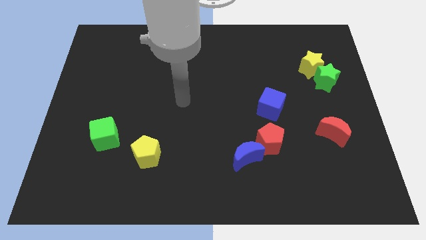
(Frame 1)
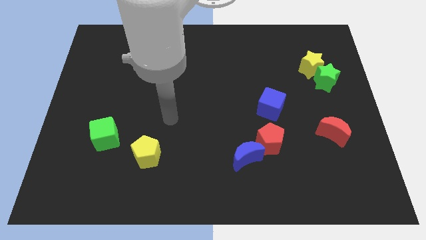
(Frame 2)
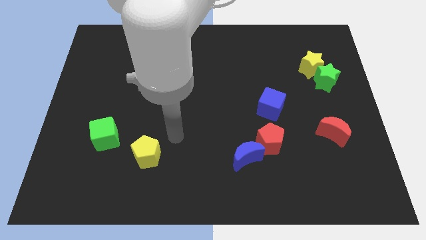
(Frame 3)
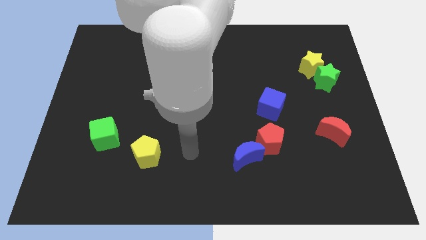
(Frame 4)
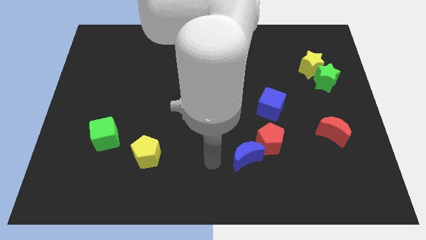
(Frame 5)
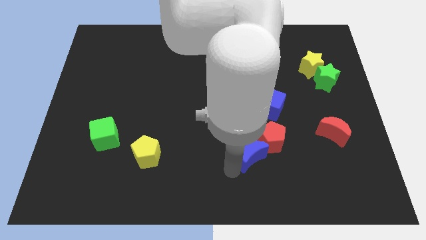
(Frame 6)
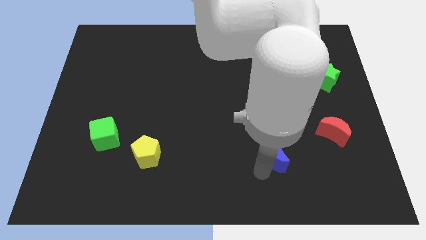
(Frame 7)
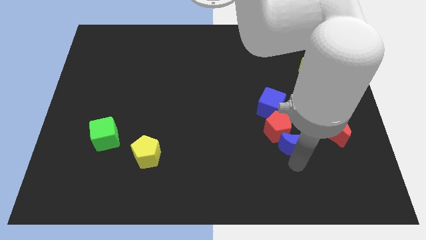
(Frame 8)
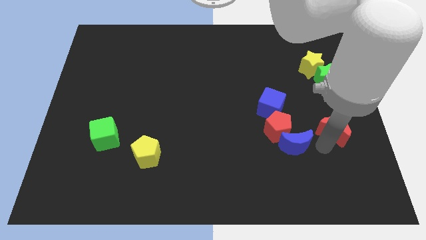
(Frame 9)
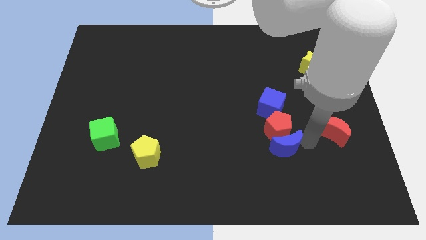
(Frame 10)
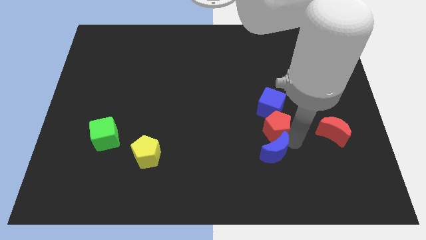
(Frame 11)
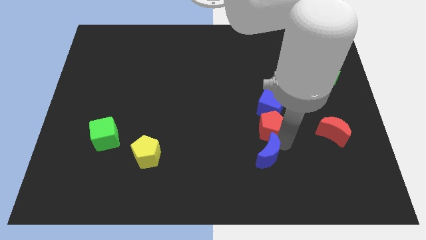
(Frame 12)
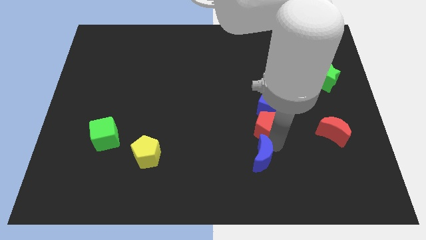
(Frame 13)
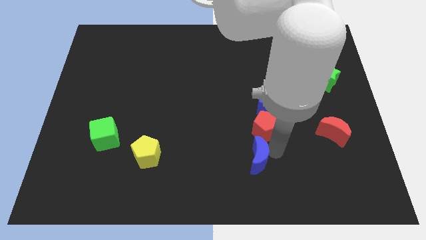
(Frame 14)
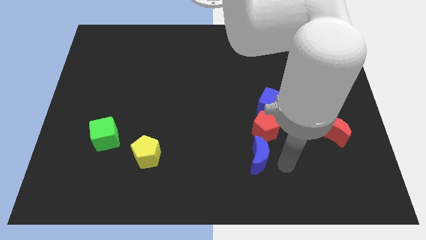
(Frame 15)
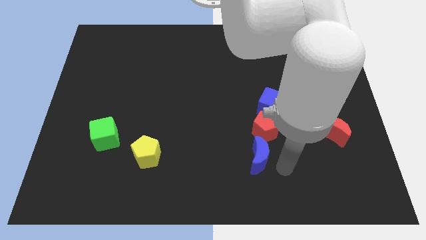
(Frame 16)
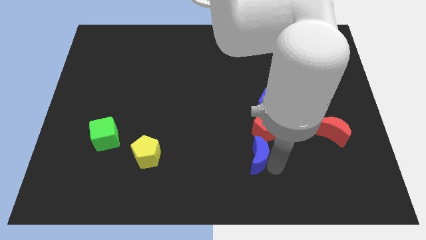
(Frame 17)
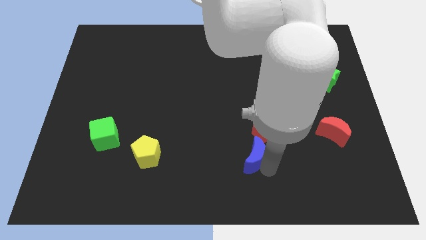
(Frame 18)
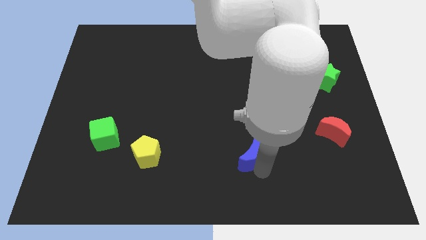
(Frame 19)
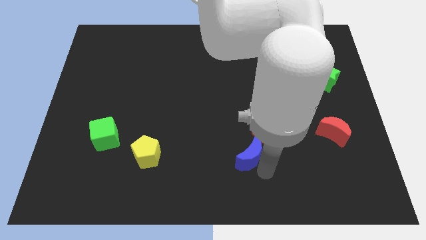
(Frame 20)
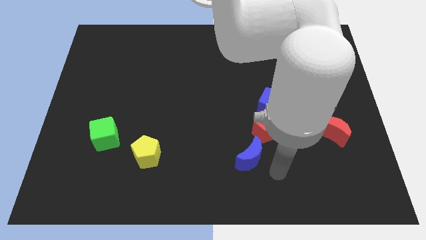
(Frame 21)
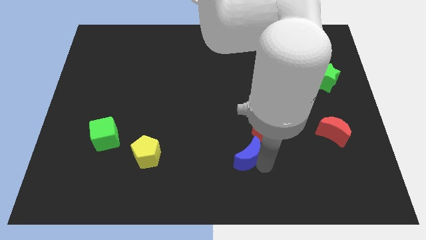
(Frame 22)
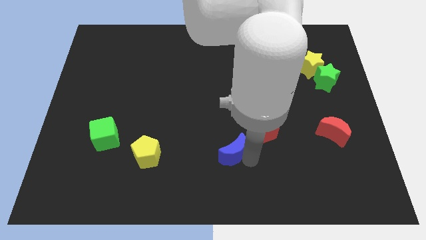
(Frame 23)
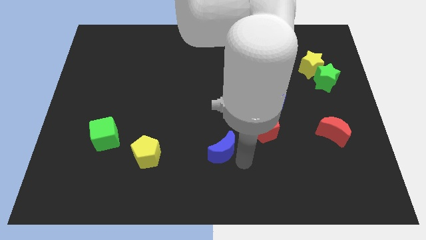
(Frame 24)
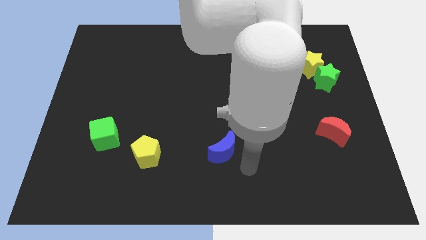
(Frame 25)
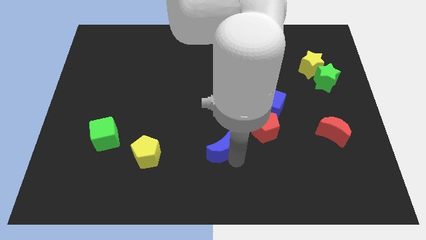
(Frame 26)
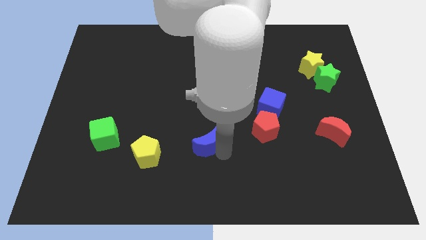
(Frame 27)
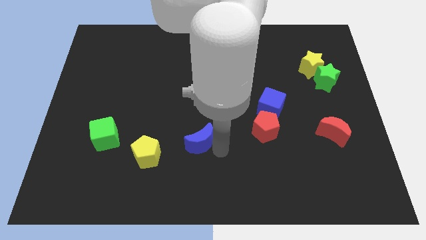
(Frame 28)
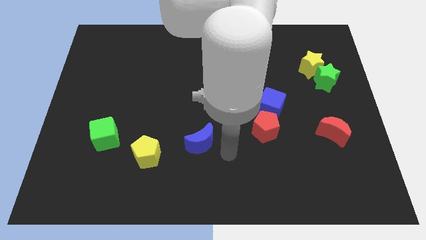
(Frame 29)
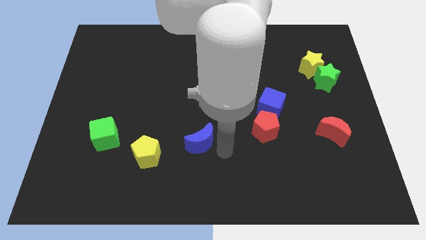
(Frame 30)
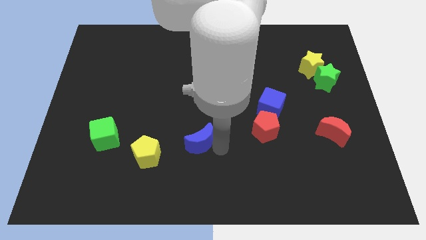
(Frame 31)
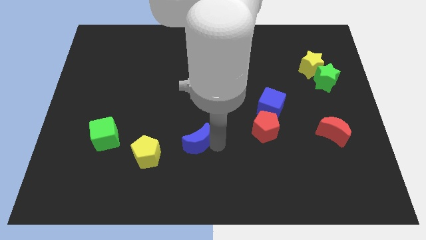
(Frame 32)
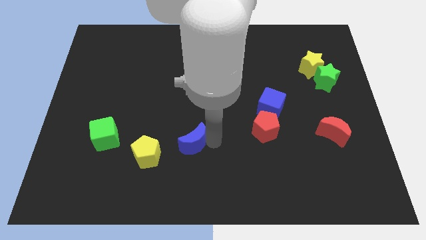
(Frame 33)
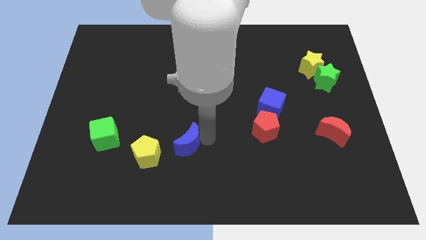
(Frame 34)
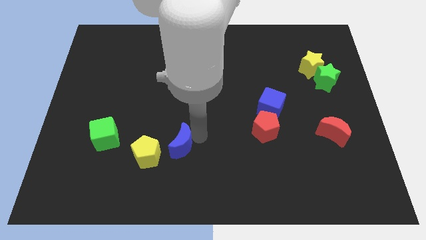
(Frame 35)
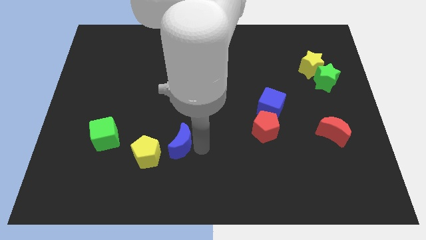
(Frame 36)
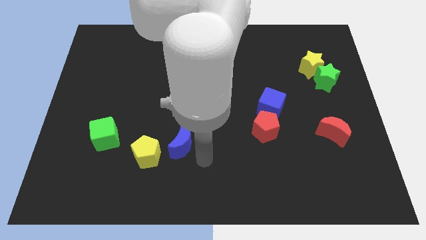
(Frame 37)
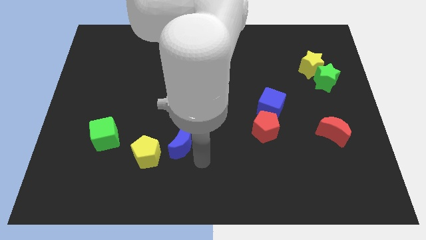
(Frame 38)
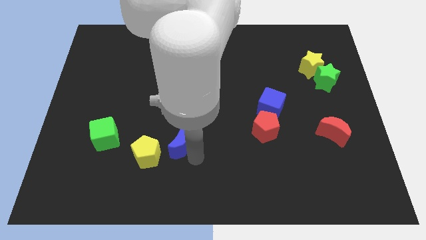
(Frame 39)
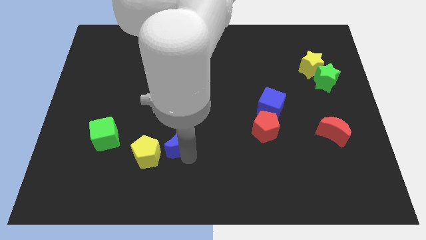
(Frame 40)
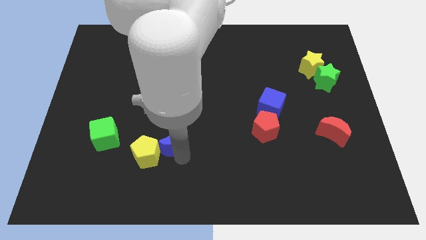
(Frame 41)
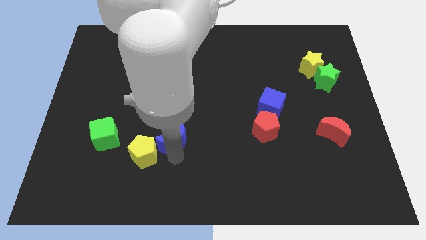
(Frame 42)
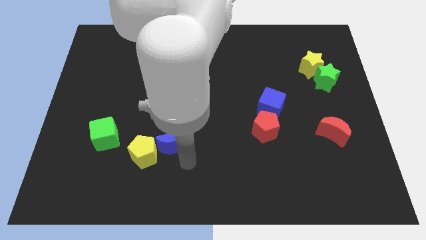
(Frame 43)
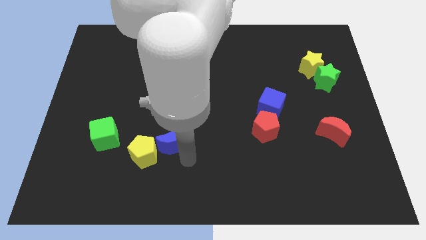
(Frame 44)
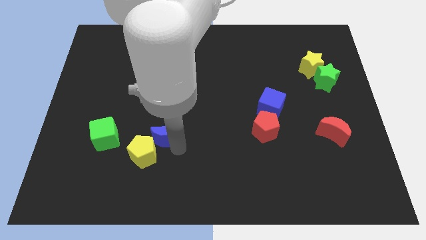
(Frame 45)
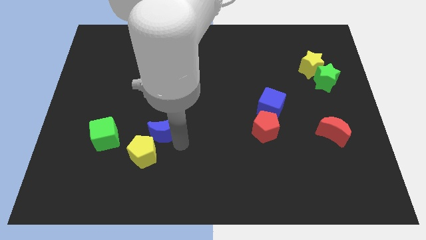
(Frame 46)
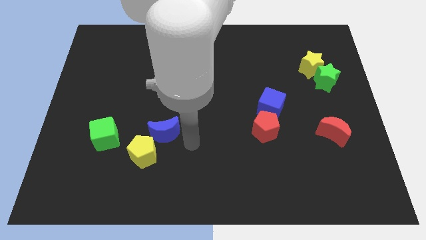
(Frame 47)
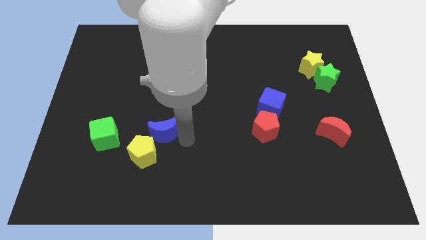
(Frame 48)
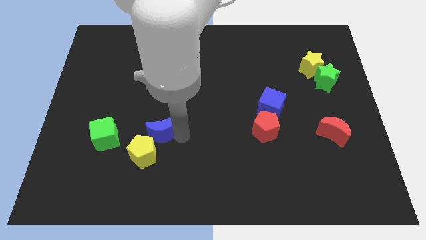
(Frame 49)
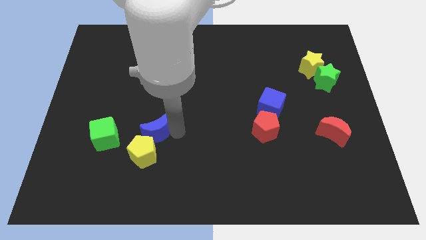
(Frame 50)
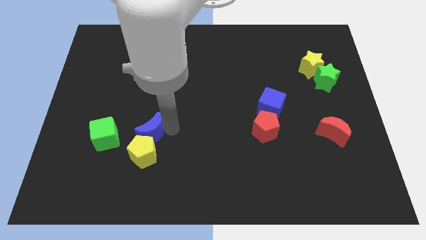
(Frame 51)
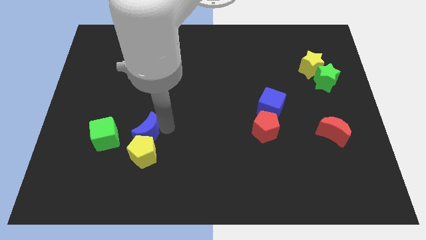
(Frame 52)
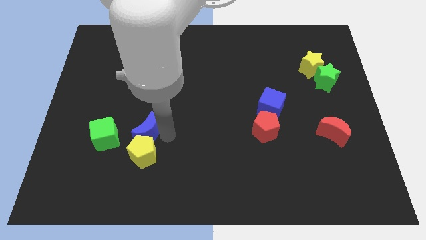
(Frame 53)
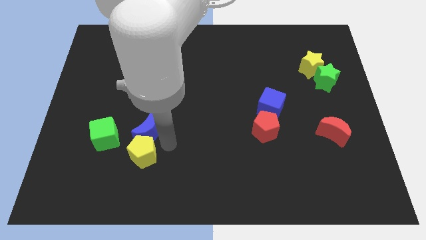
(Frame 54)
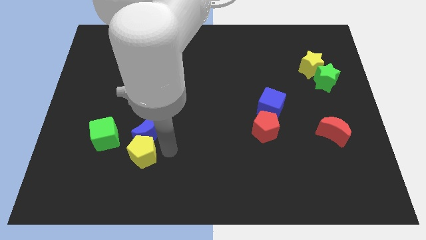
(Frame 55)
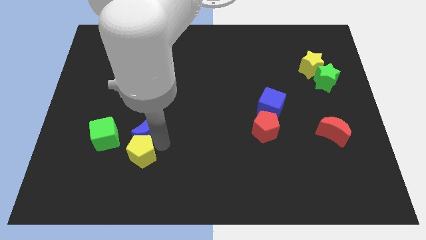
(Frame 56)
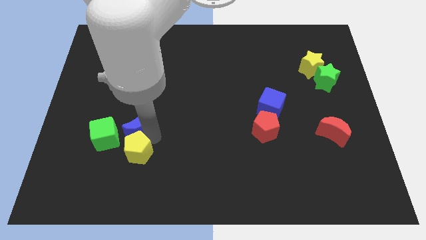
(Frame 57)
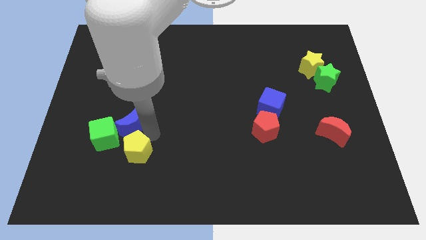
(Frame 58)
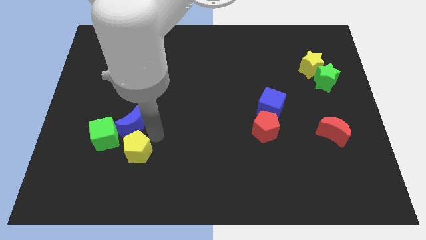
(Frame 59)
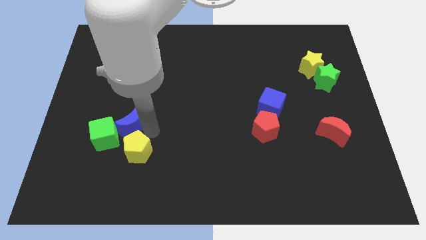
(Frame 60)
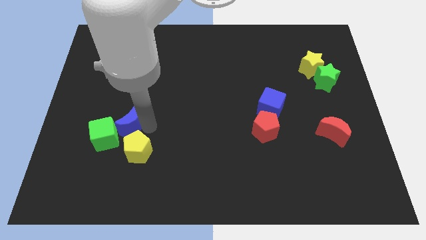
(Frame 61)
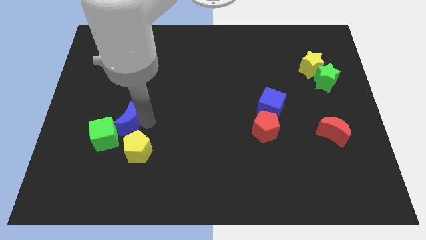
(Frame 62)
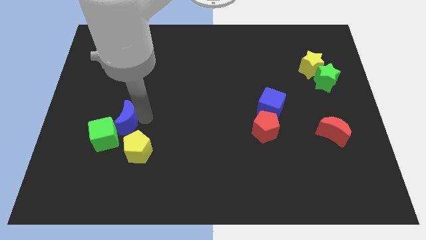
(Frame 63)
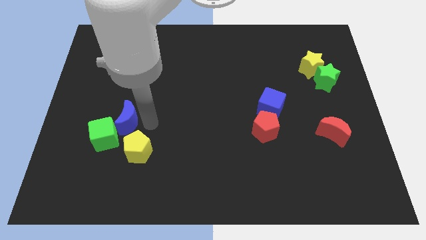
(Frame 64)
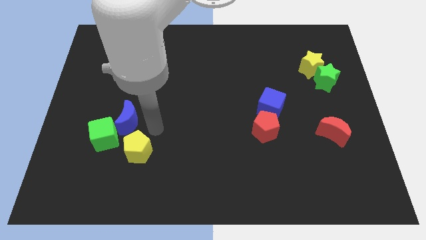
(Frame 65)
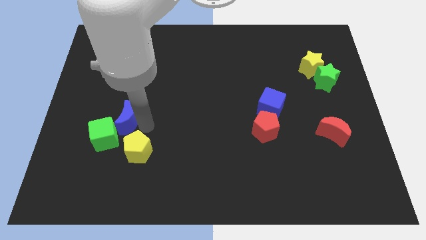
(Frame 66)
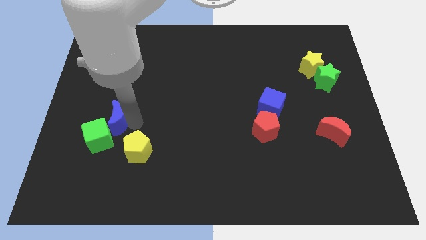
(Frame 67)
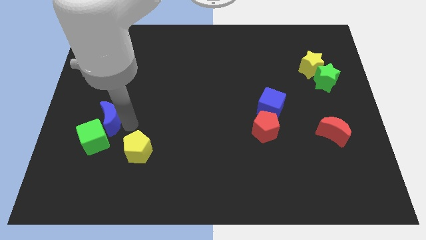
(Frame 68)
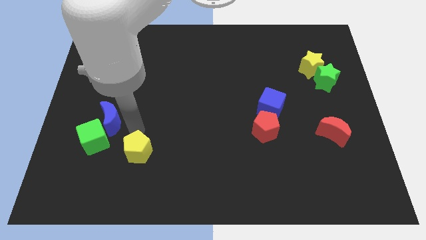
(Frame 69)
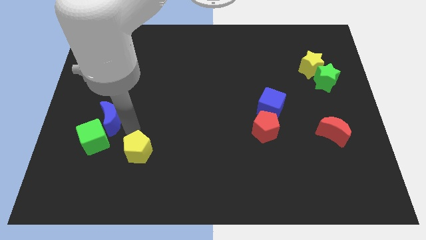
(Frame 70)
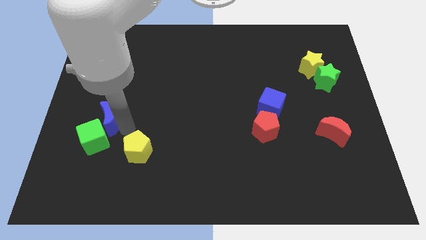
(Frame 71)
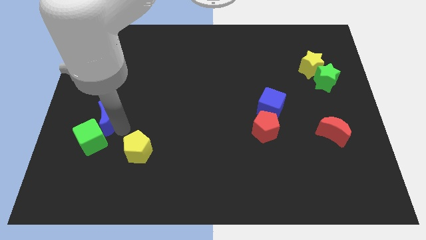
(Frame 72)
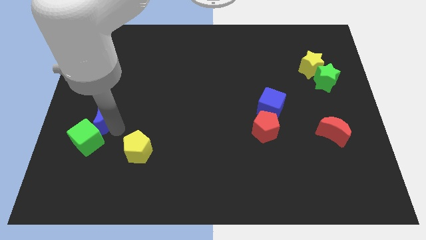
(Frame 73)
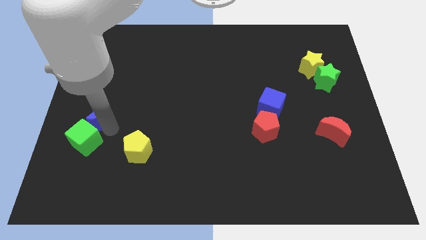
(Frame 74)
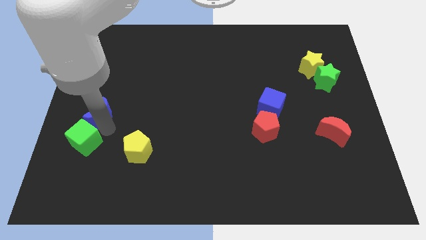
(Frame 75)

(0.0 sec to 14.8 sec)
move the blue moon to the left side of the board
